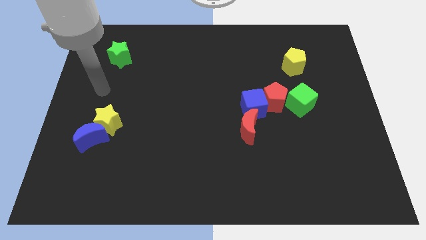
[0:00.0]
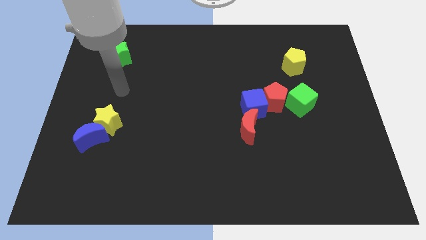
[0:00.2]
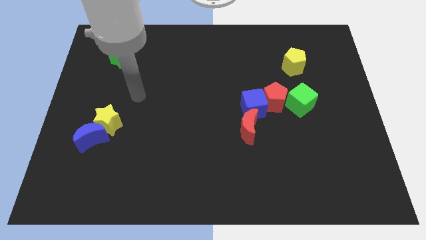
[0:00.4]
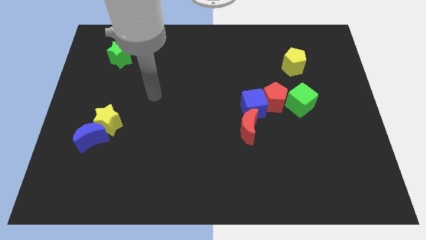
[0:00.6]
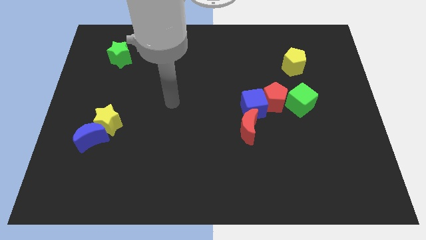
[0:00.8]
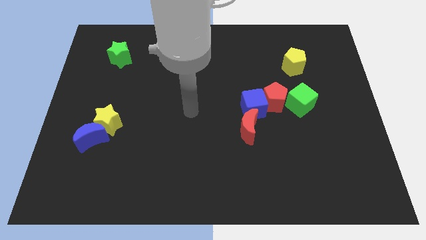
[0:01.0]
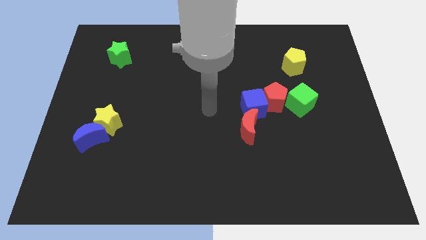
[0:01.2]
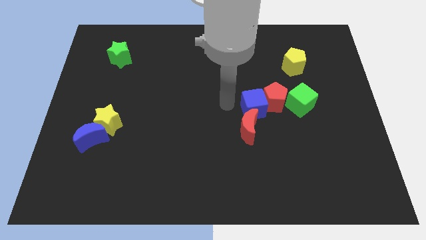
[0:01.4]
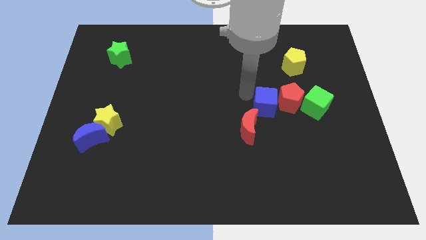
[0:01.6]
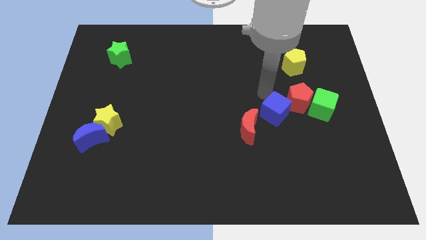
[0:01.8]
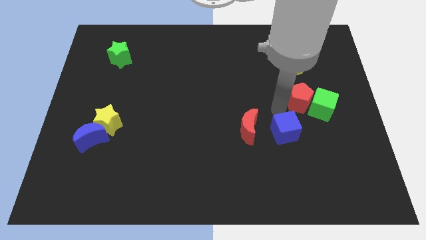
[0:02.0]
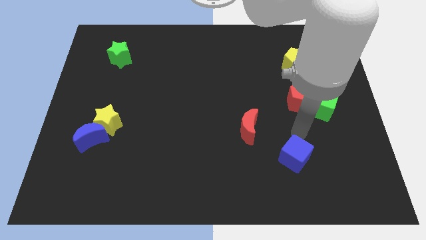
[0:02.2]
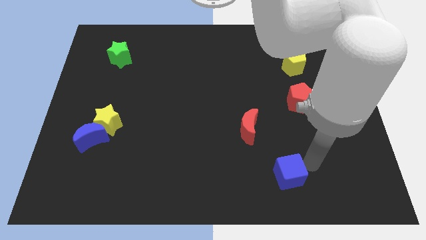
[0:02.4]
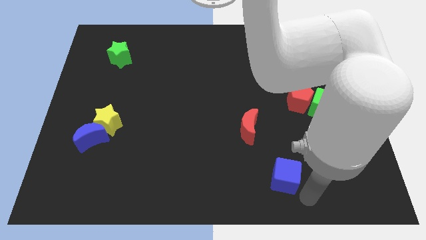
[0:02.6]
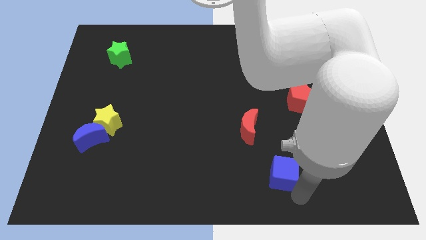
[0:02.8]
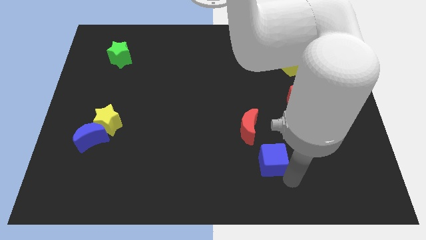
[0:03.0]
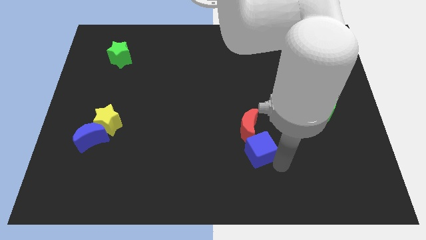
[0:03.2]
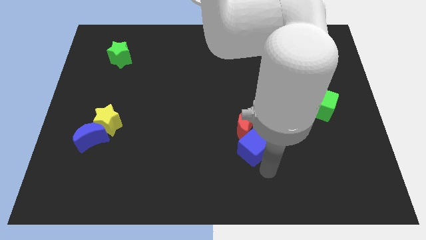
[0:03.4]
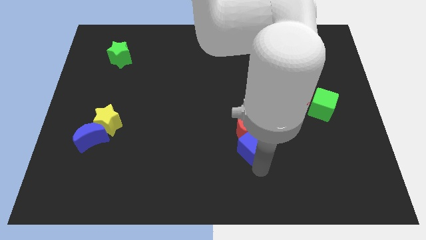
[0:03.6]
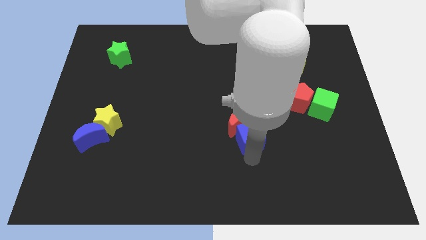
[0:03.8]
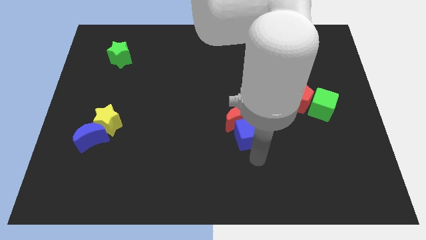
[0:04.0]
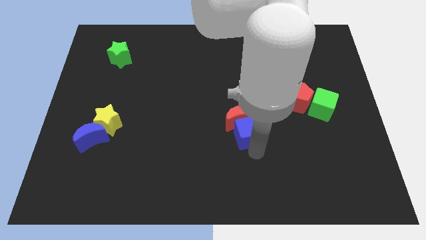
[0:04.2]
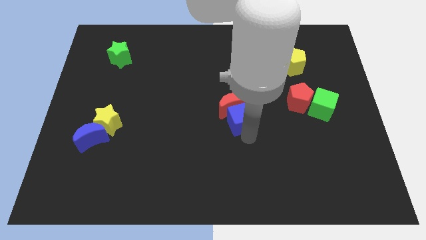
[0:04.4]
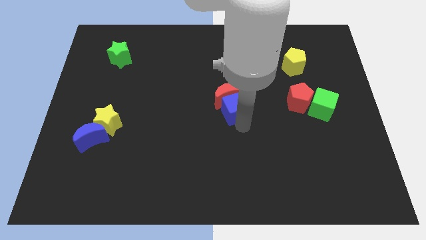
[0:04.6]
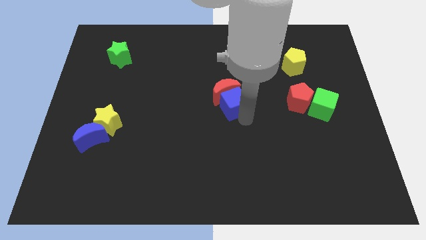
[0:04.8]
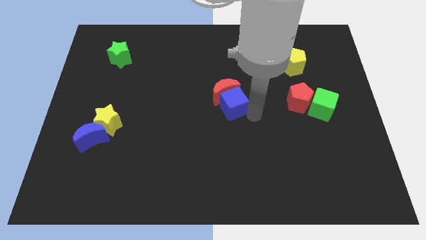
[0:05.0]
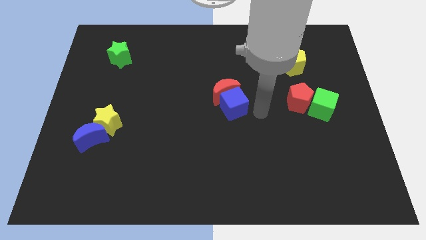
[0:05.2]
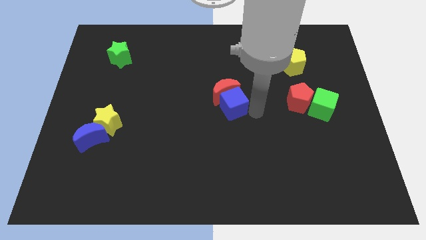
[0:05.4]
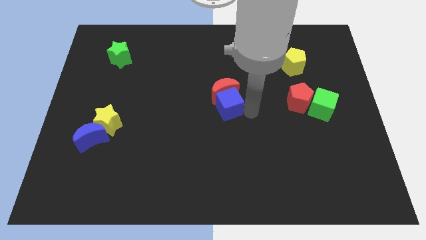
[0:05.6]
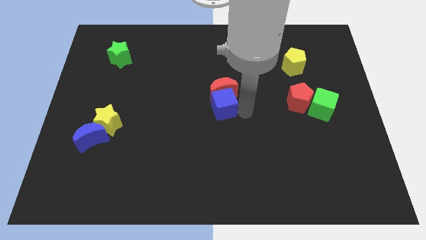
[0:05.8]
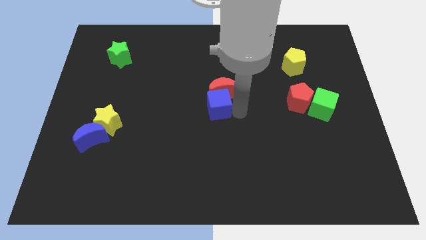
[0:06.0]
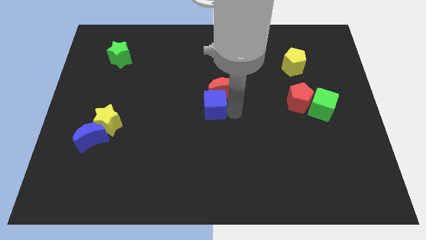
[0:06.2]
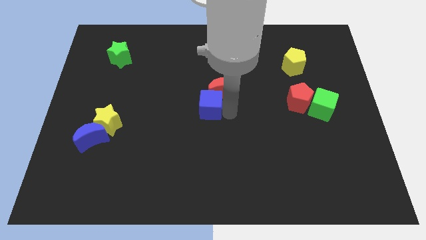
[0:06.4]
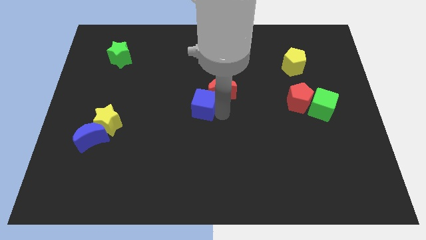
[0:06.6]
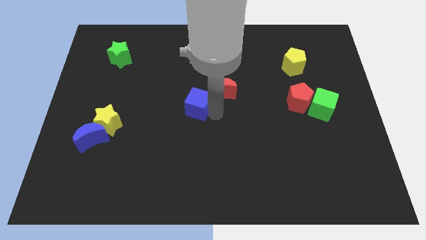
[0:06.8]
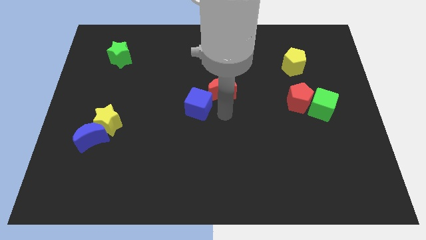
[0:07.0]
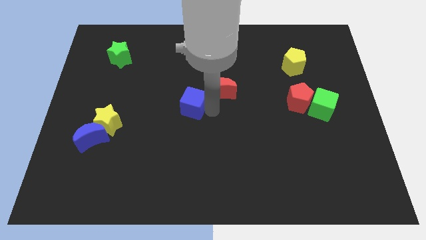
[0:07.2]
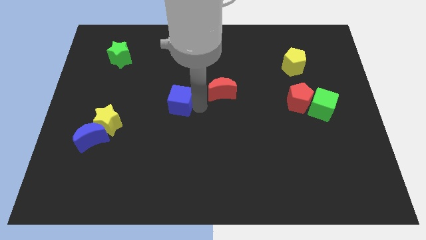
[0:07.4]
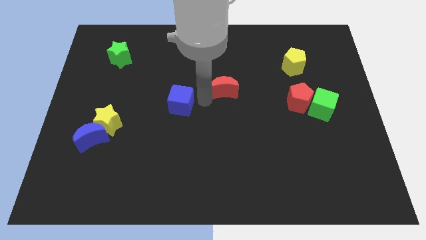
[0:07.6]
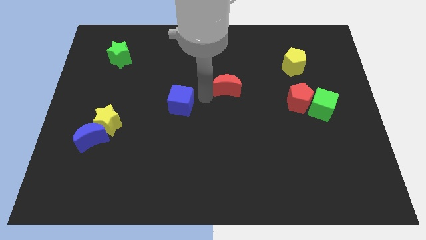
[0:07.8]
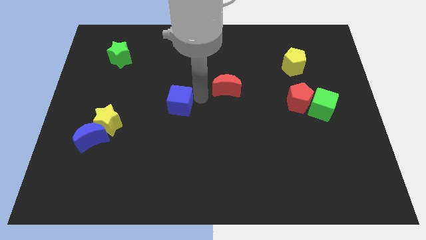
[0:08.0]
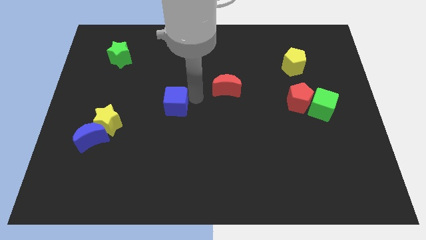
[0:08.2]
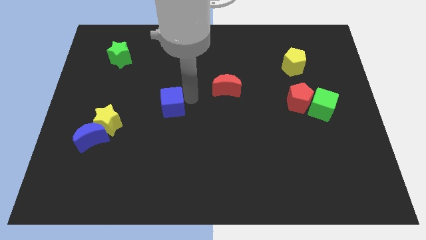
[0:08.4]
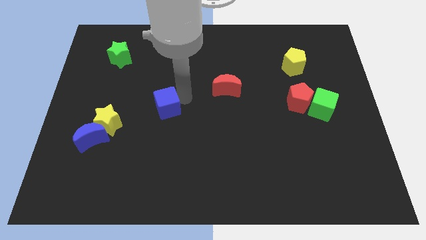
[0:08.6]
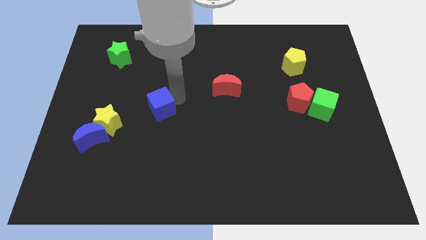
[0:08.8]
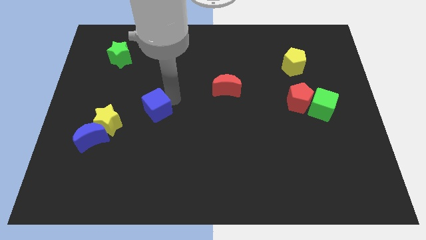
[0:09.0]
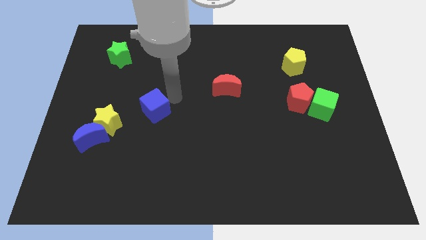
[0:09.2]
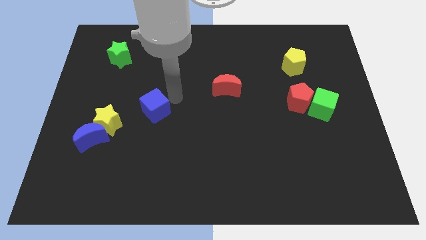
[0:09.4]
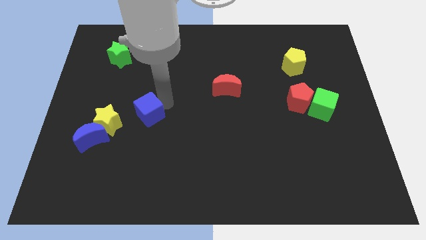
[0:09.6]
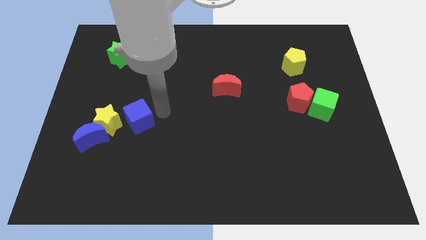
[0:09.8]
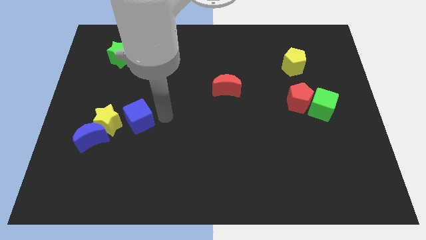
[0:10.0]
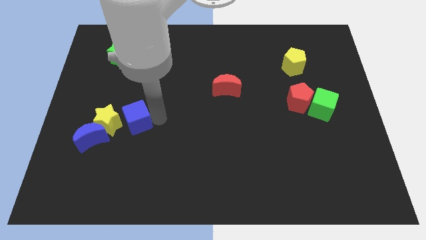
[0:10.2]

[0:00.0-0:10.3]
push the blue cube to the yellow star

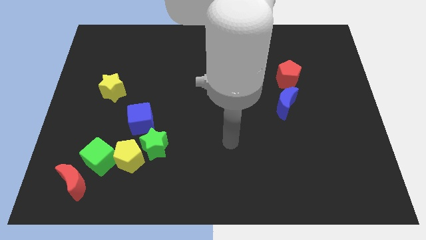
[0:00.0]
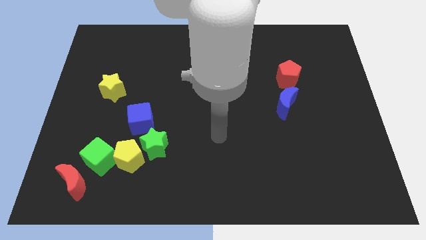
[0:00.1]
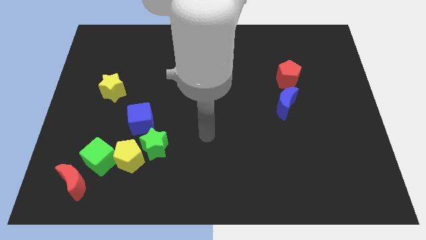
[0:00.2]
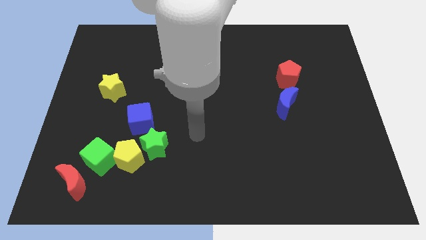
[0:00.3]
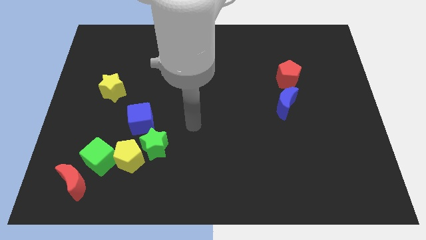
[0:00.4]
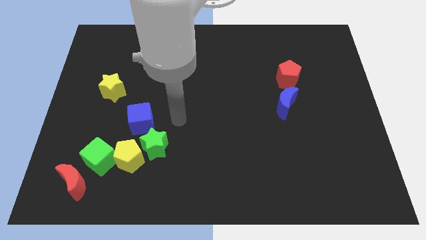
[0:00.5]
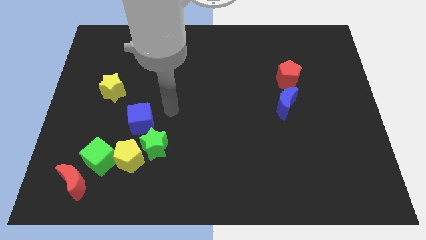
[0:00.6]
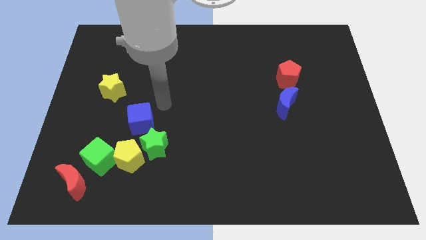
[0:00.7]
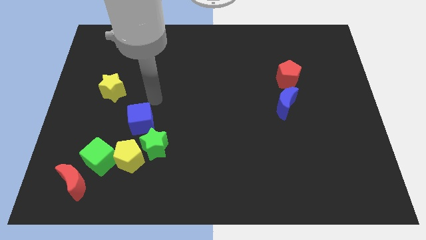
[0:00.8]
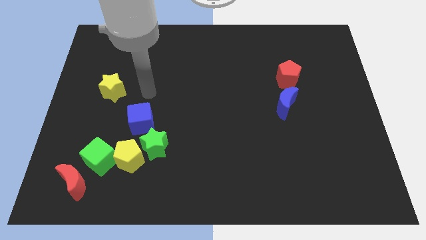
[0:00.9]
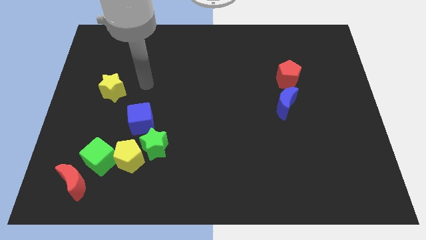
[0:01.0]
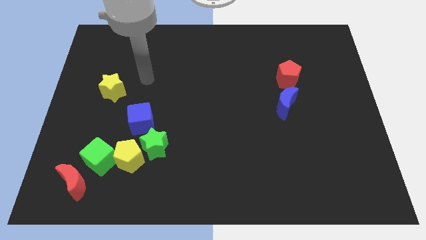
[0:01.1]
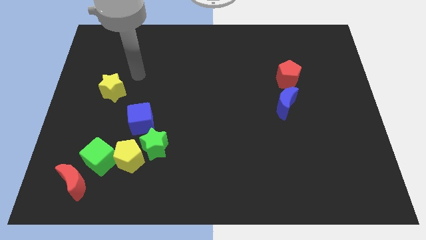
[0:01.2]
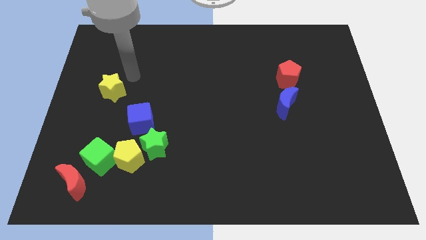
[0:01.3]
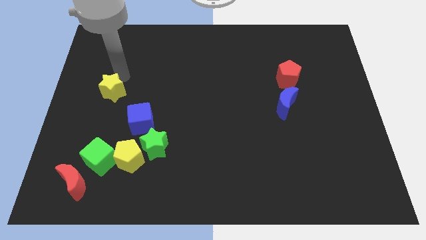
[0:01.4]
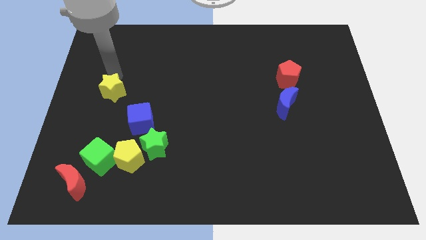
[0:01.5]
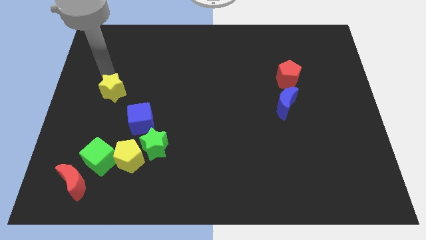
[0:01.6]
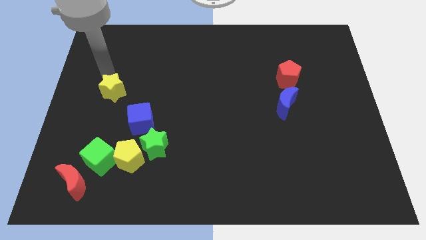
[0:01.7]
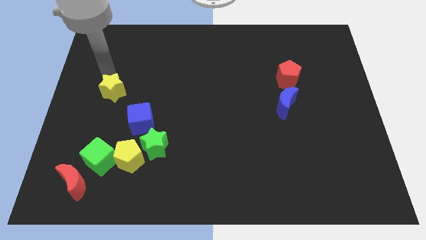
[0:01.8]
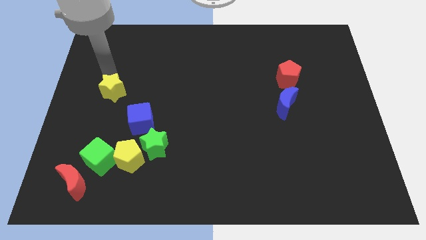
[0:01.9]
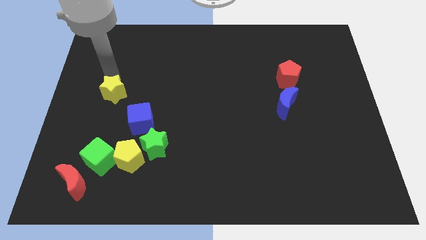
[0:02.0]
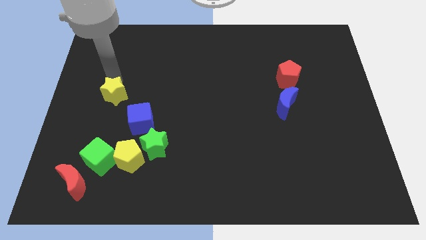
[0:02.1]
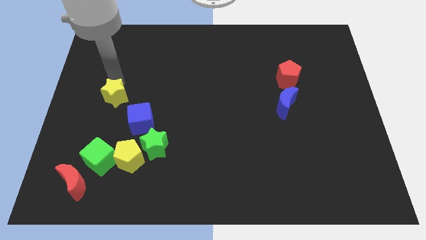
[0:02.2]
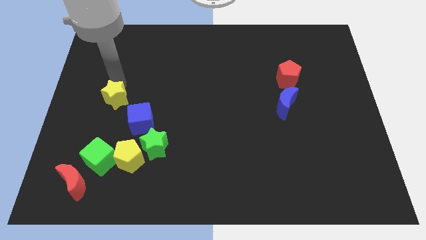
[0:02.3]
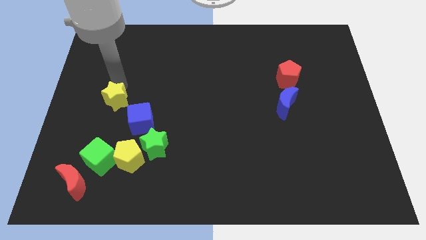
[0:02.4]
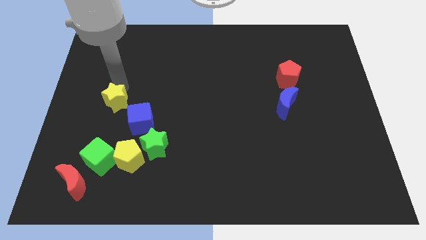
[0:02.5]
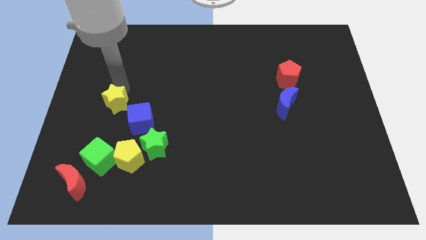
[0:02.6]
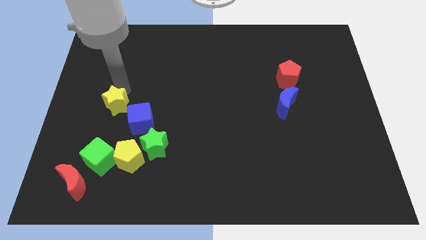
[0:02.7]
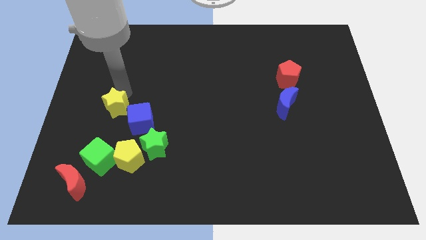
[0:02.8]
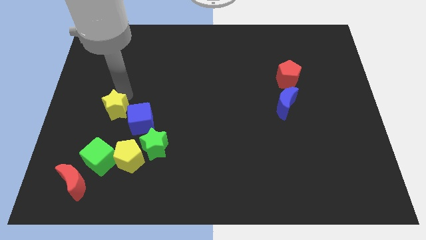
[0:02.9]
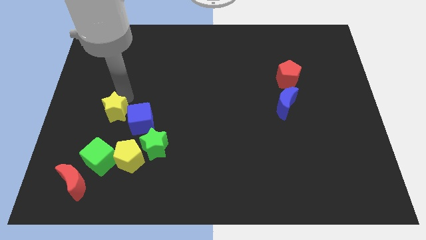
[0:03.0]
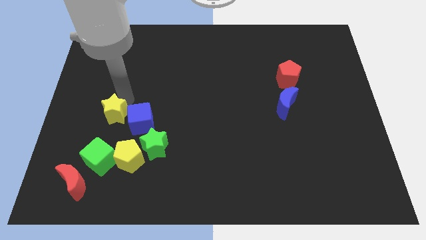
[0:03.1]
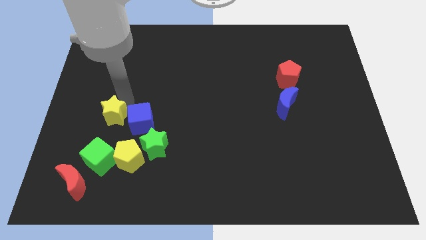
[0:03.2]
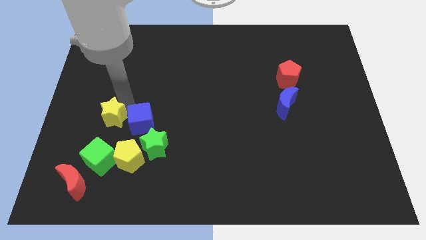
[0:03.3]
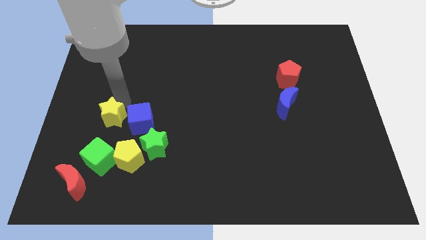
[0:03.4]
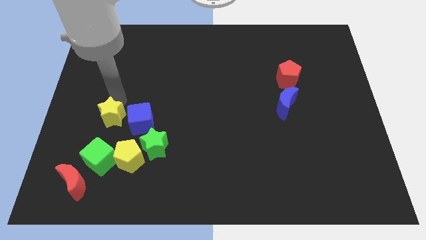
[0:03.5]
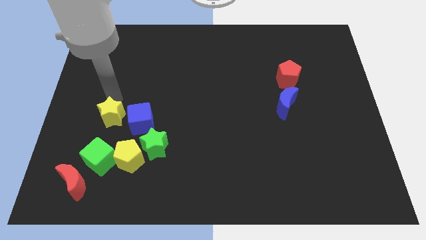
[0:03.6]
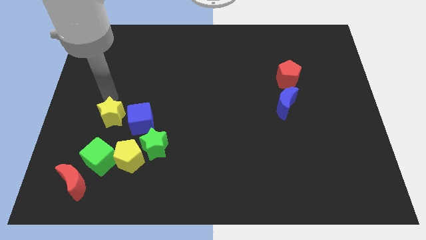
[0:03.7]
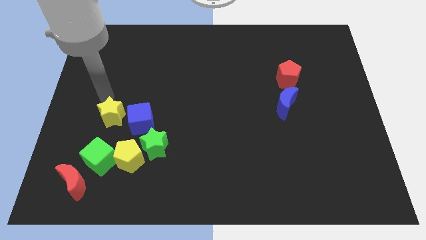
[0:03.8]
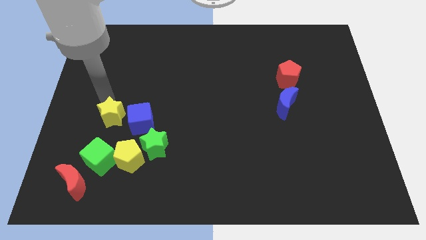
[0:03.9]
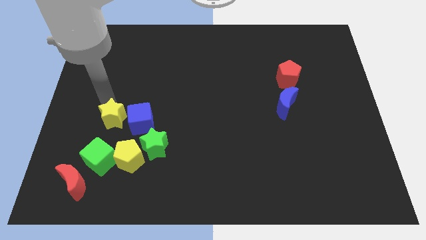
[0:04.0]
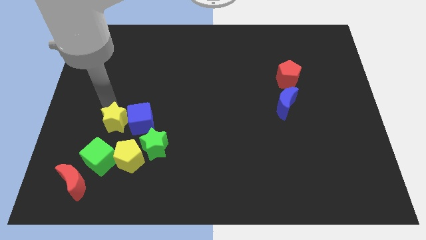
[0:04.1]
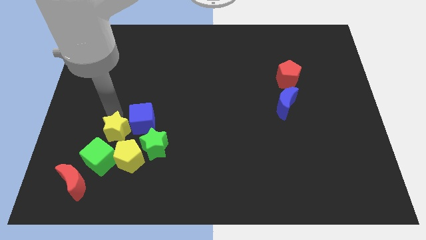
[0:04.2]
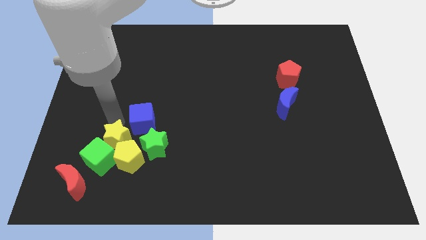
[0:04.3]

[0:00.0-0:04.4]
slide the yellow star to the yellow pentagon
